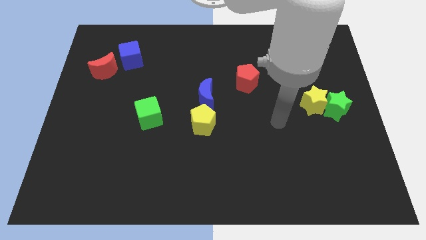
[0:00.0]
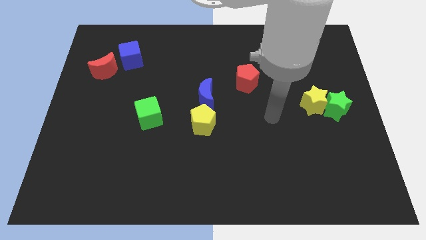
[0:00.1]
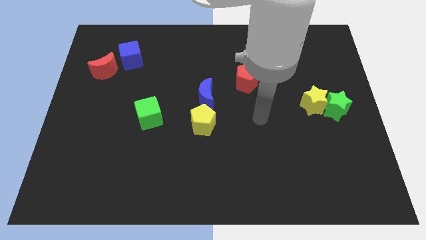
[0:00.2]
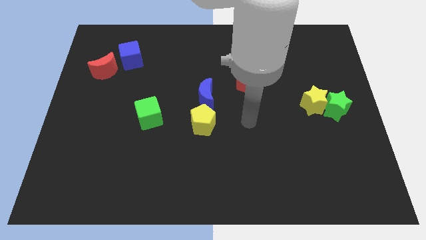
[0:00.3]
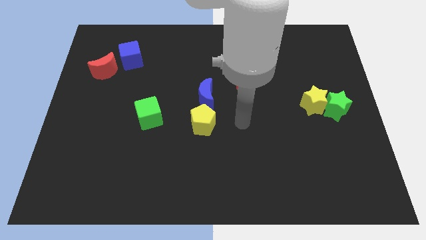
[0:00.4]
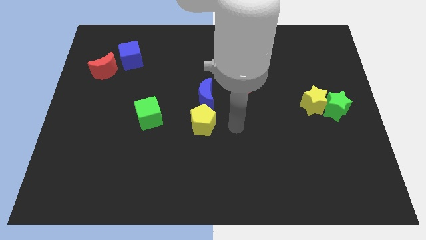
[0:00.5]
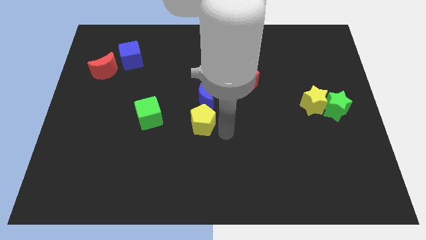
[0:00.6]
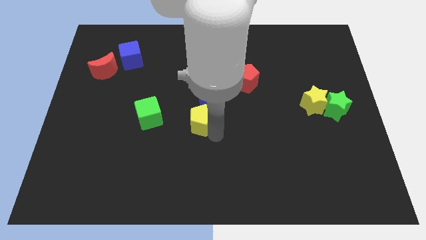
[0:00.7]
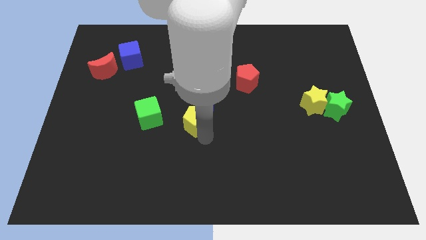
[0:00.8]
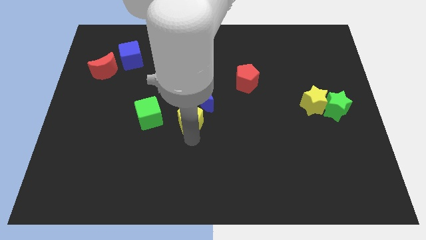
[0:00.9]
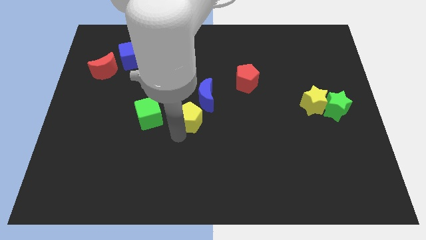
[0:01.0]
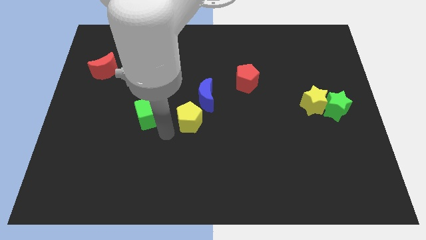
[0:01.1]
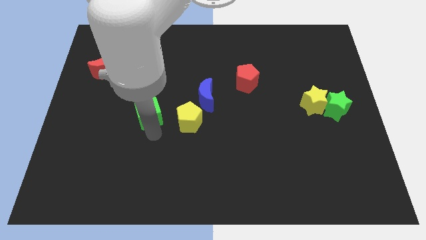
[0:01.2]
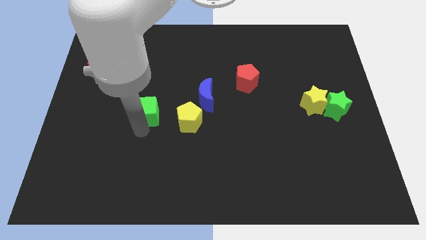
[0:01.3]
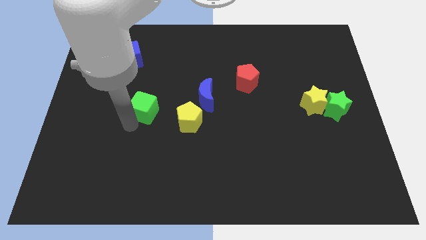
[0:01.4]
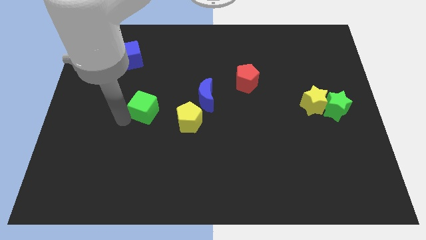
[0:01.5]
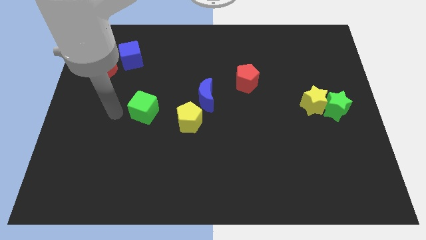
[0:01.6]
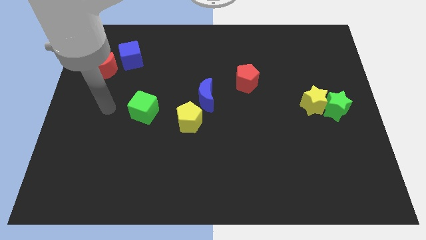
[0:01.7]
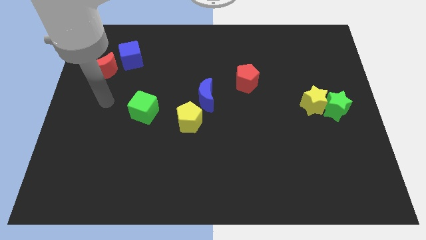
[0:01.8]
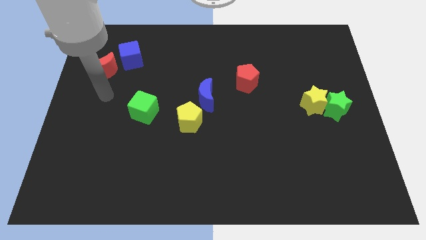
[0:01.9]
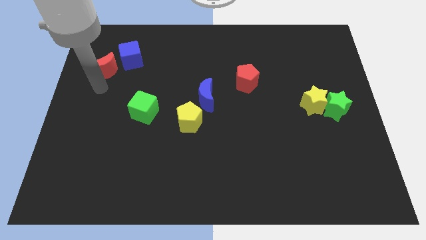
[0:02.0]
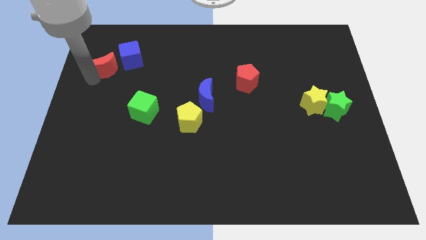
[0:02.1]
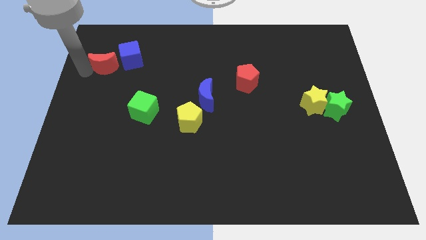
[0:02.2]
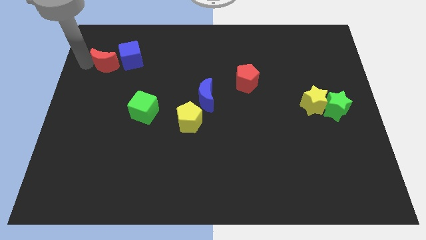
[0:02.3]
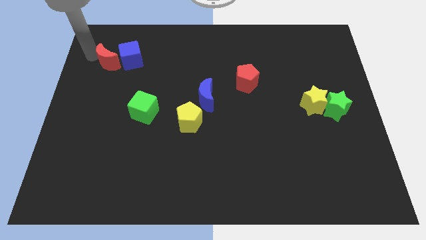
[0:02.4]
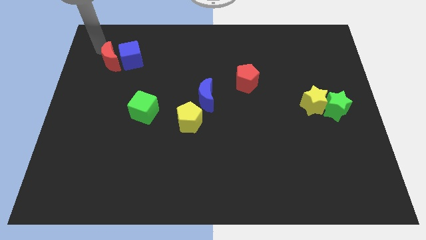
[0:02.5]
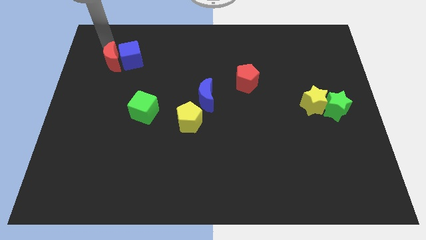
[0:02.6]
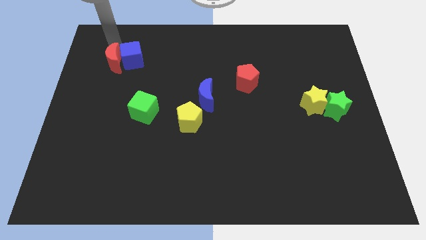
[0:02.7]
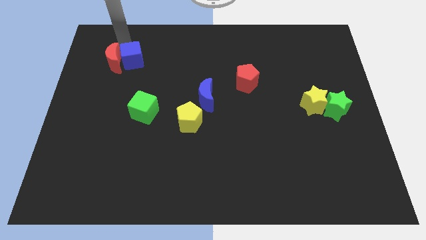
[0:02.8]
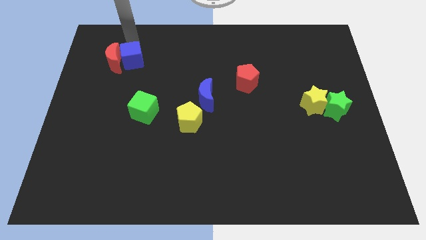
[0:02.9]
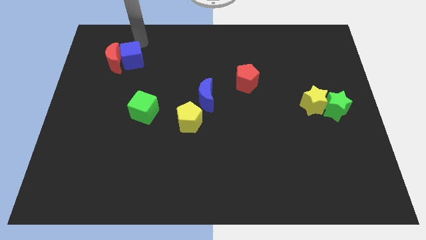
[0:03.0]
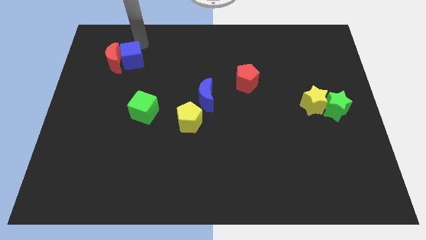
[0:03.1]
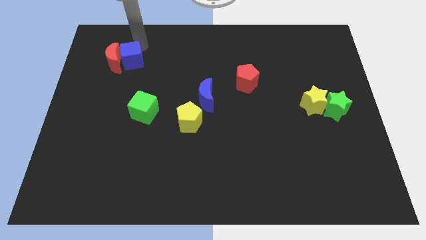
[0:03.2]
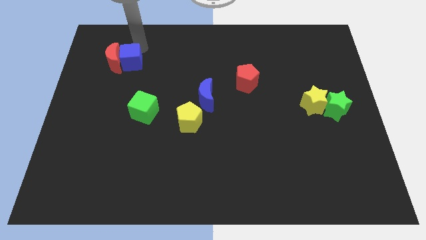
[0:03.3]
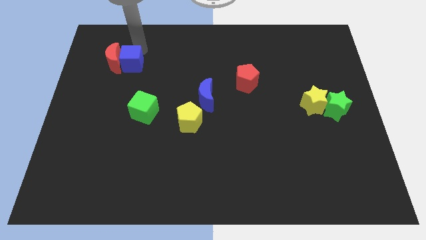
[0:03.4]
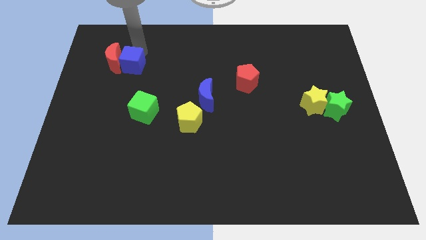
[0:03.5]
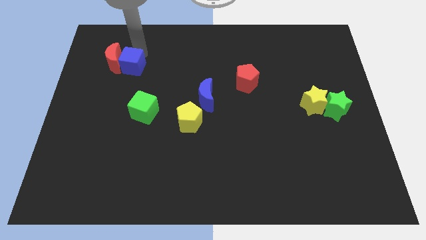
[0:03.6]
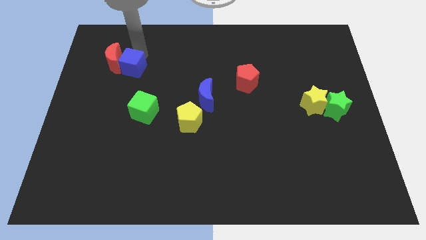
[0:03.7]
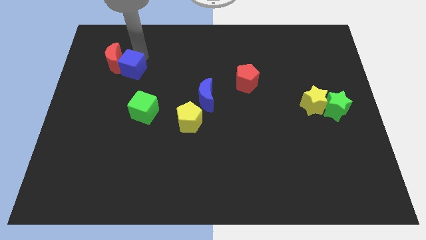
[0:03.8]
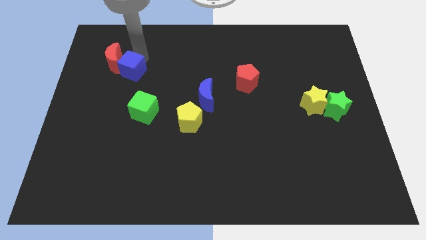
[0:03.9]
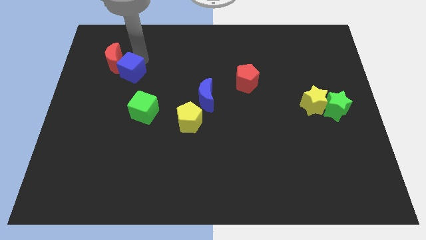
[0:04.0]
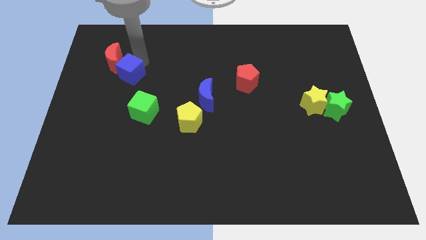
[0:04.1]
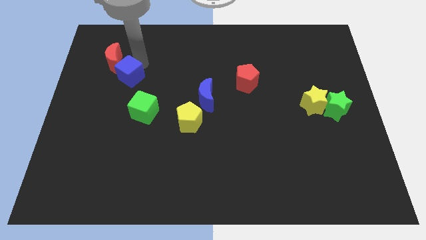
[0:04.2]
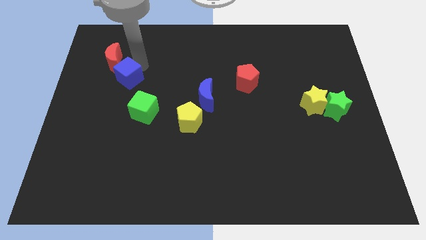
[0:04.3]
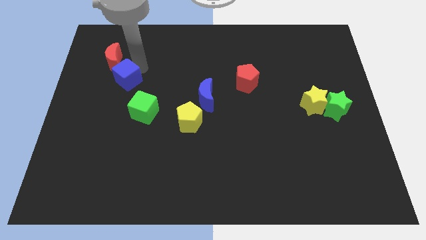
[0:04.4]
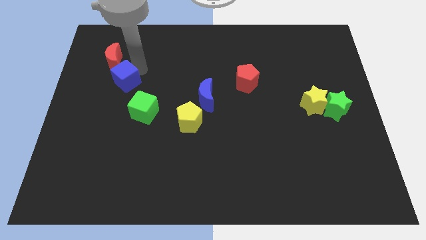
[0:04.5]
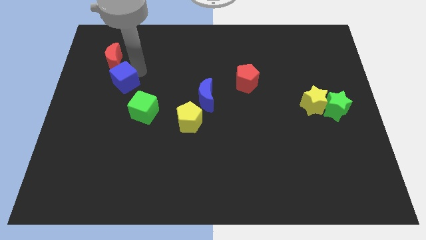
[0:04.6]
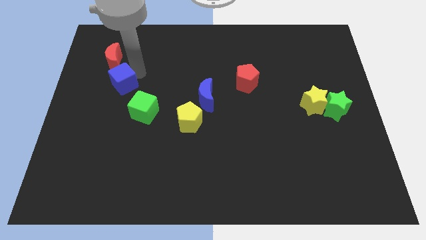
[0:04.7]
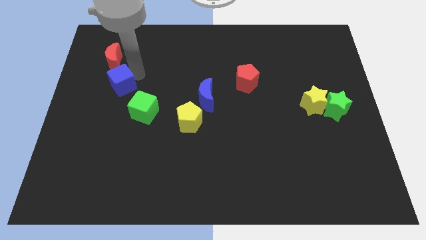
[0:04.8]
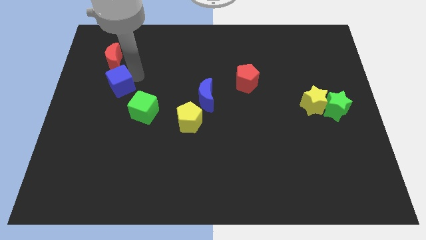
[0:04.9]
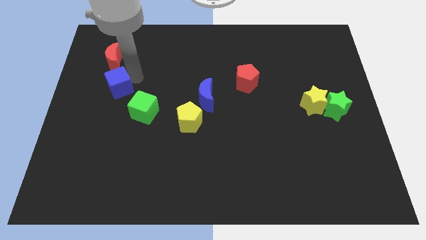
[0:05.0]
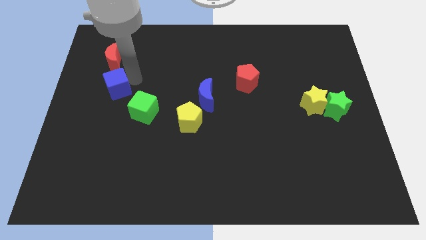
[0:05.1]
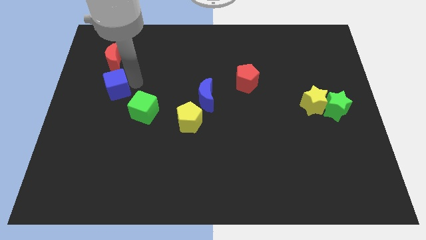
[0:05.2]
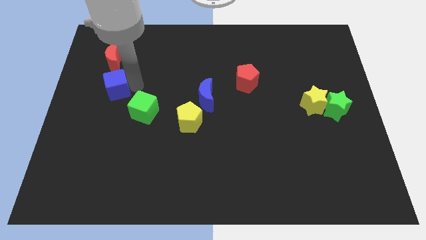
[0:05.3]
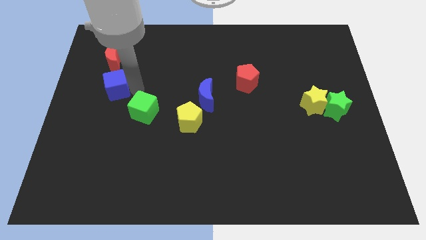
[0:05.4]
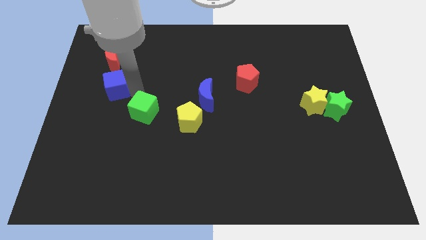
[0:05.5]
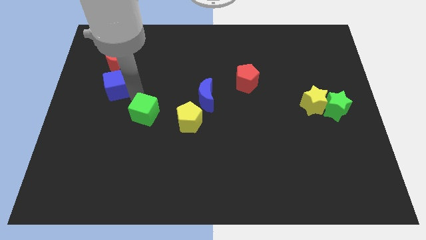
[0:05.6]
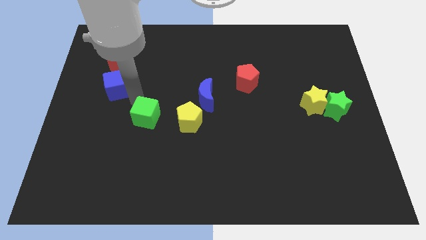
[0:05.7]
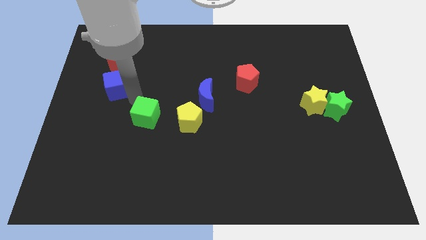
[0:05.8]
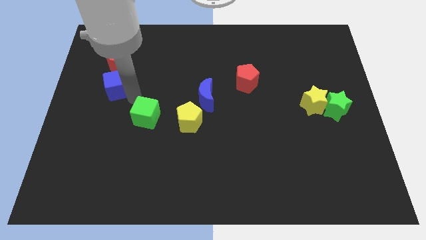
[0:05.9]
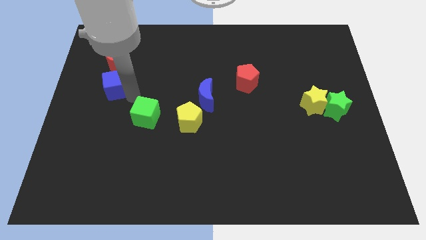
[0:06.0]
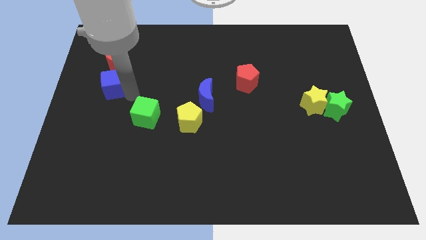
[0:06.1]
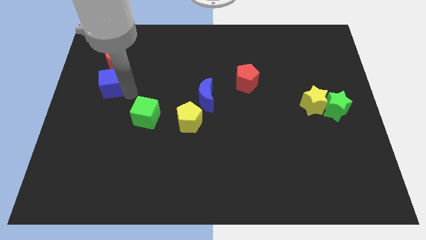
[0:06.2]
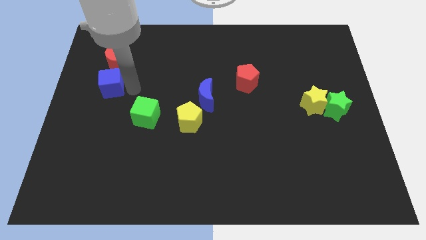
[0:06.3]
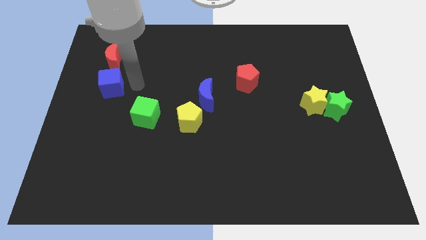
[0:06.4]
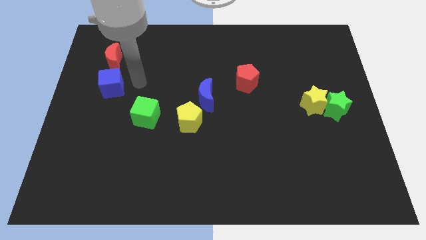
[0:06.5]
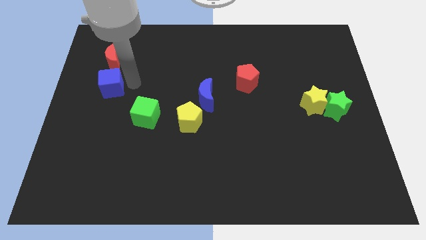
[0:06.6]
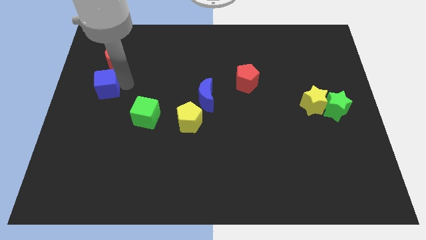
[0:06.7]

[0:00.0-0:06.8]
slide the blue cube to the center left
